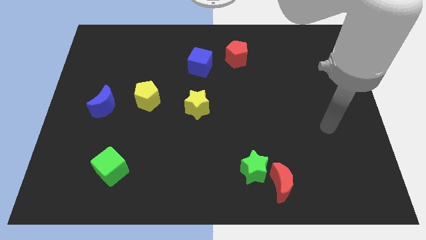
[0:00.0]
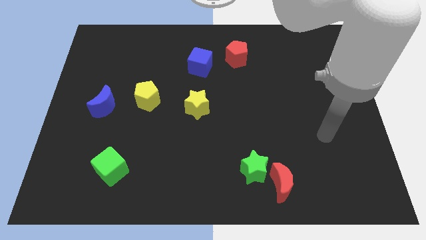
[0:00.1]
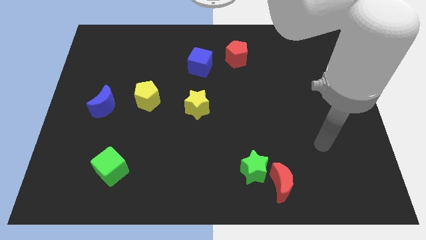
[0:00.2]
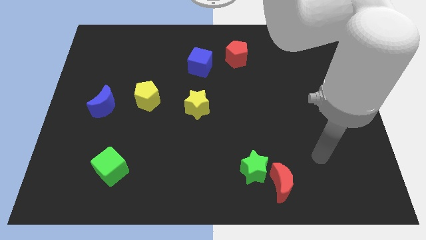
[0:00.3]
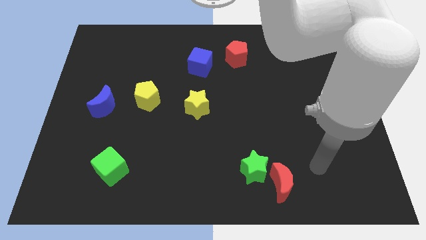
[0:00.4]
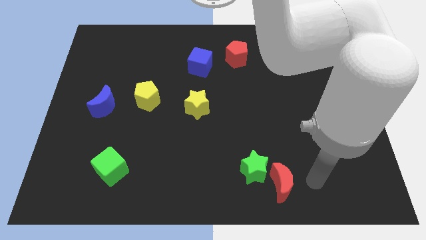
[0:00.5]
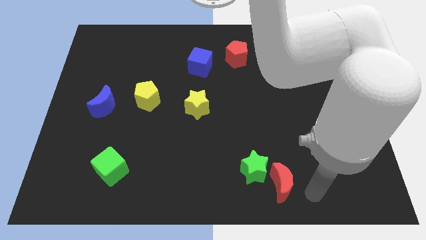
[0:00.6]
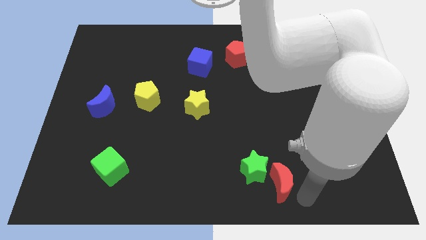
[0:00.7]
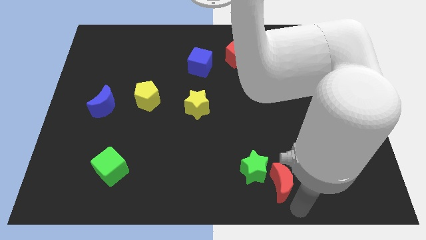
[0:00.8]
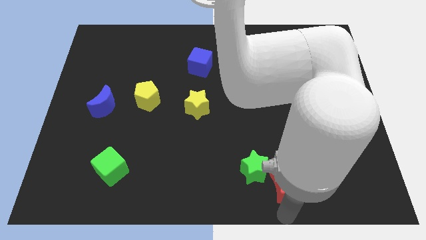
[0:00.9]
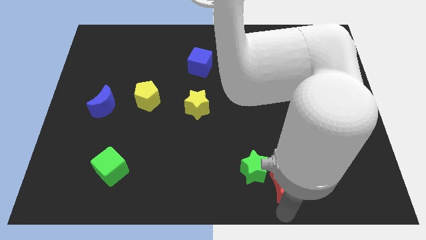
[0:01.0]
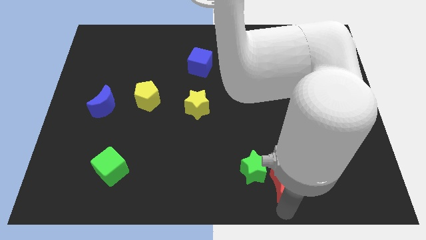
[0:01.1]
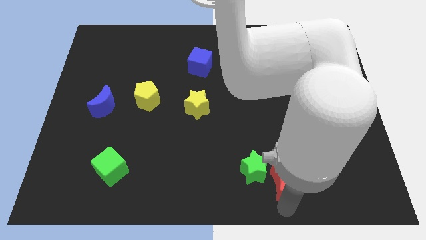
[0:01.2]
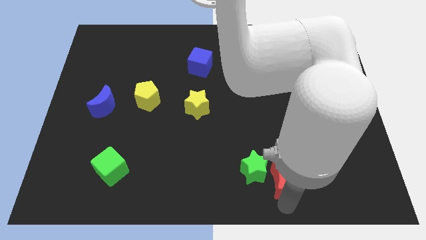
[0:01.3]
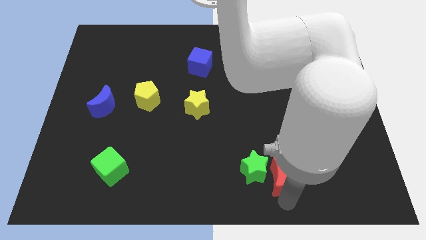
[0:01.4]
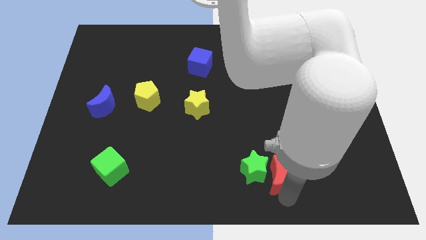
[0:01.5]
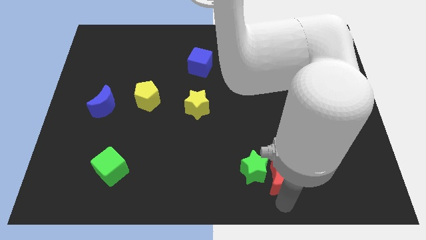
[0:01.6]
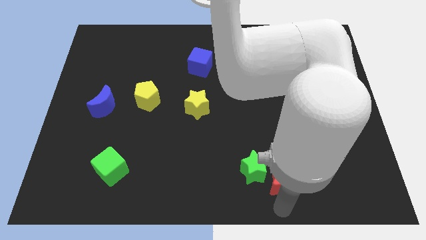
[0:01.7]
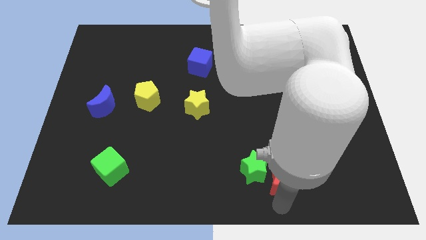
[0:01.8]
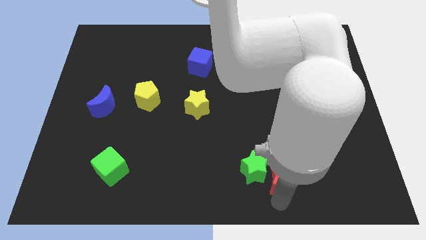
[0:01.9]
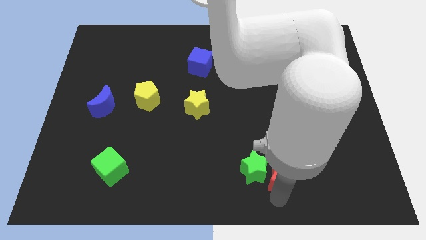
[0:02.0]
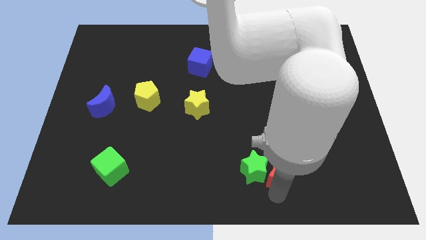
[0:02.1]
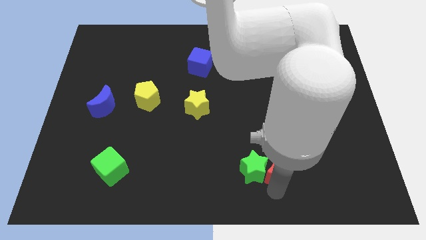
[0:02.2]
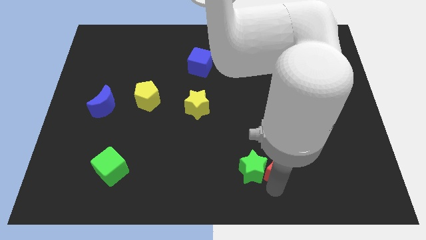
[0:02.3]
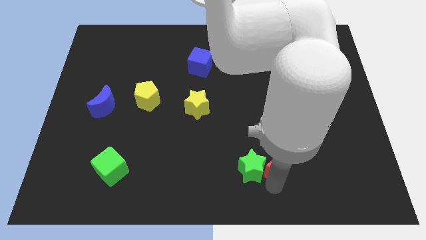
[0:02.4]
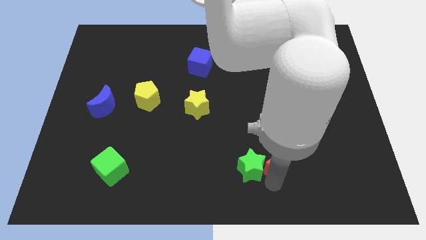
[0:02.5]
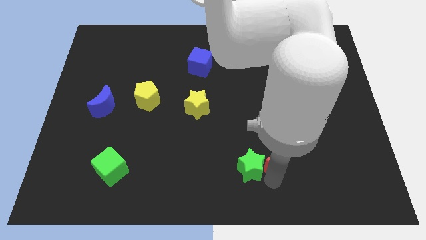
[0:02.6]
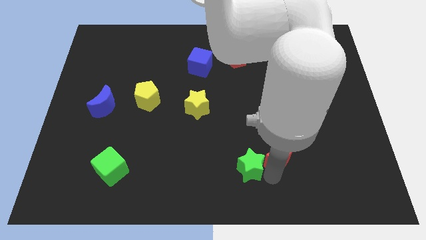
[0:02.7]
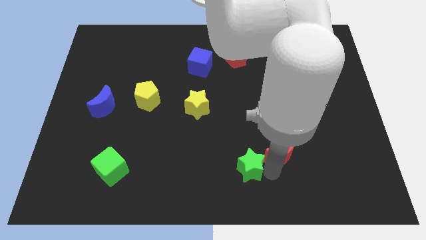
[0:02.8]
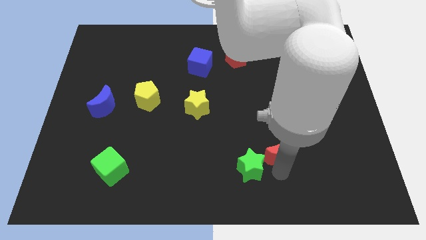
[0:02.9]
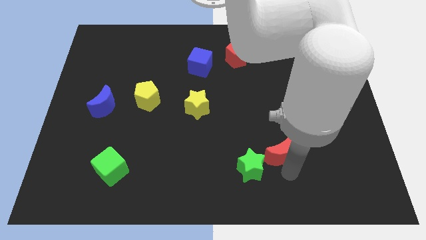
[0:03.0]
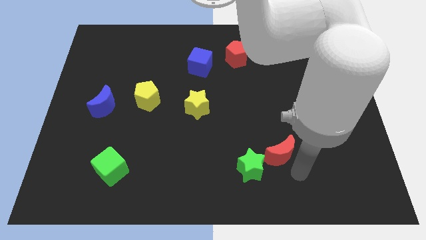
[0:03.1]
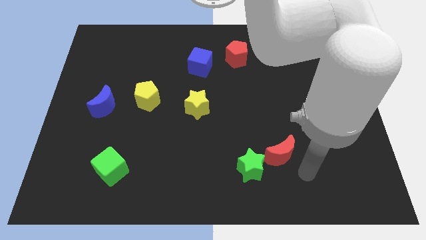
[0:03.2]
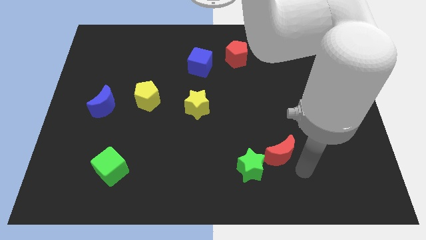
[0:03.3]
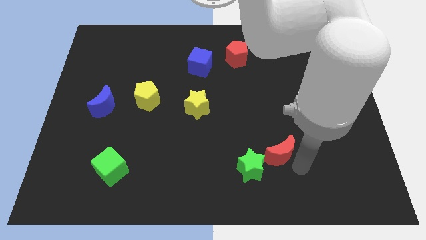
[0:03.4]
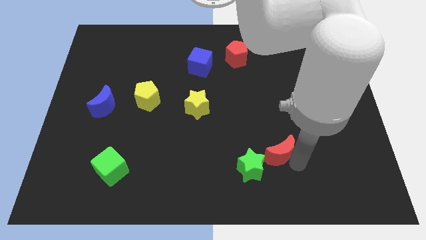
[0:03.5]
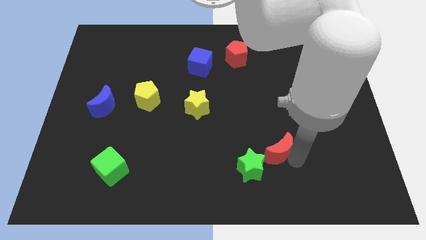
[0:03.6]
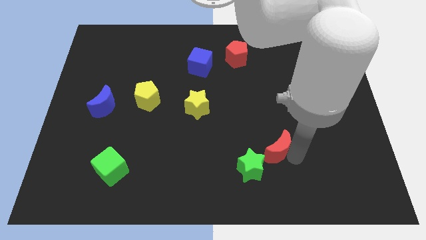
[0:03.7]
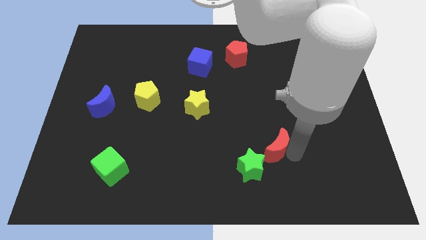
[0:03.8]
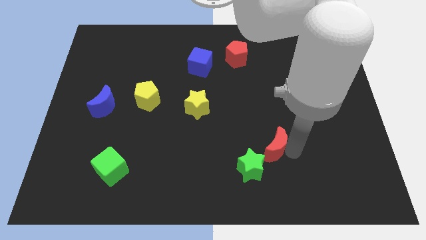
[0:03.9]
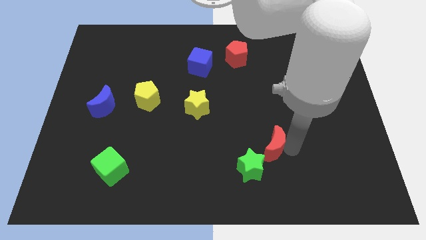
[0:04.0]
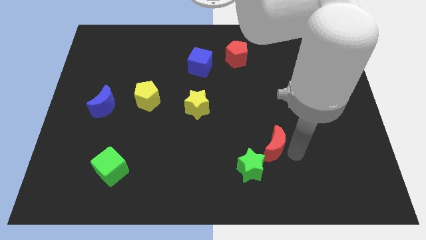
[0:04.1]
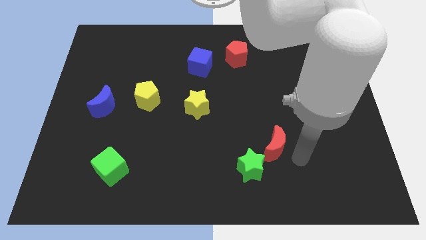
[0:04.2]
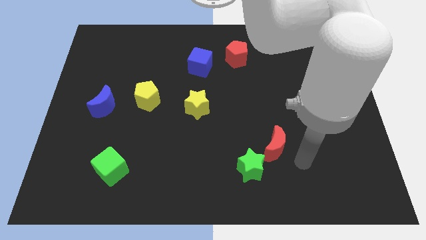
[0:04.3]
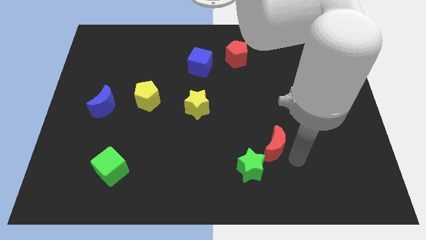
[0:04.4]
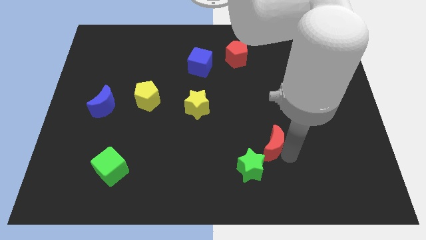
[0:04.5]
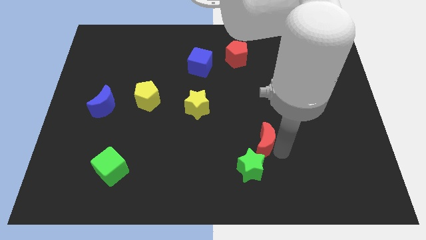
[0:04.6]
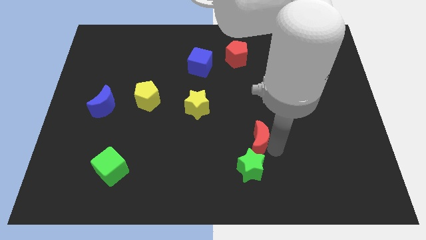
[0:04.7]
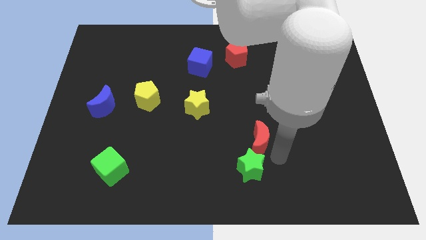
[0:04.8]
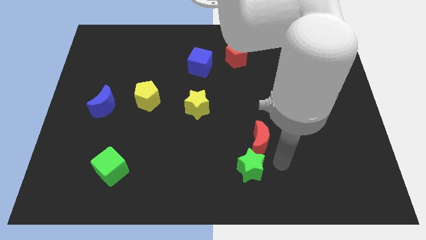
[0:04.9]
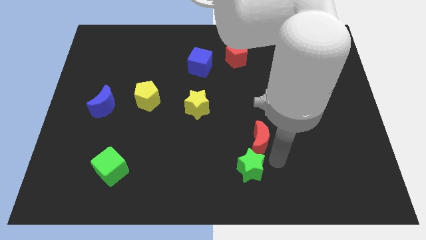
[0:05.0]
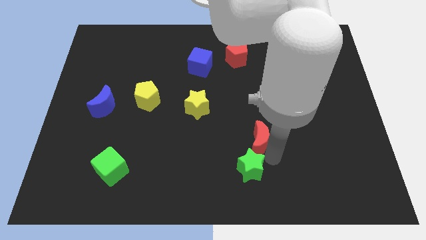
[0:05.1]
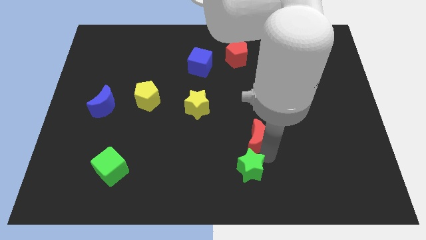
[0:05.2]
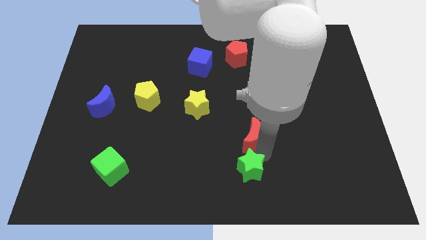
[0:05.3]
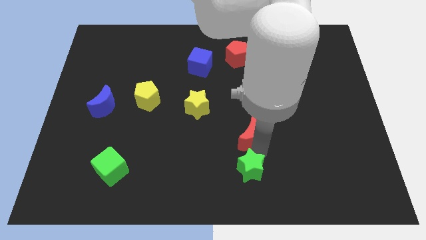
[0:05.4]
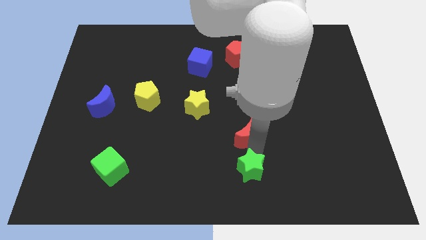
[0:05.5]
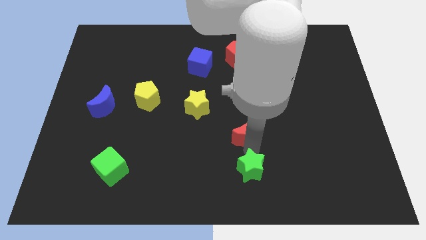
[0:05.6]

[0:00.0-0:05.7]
move the red moon to the middle of the board

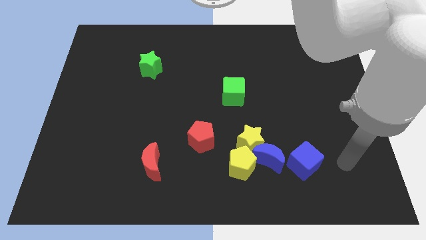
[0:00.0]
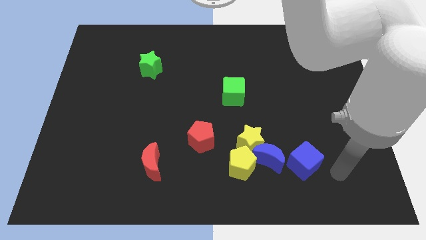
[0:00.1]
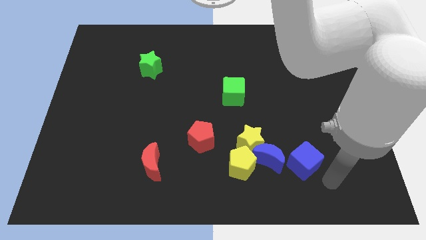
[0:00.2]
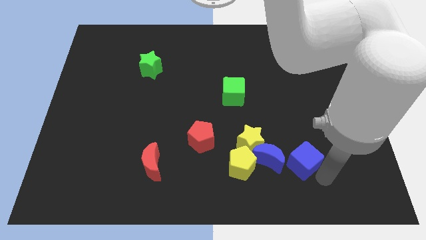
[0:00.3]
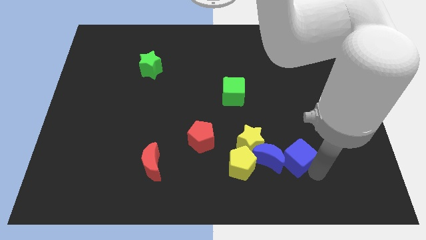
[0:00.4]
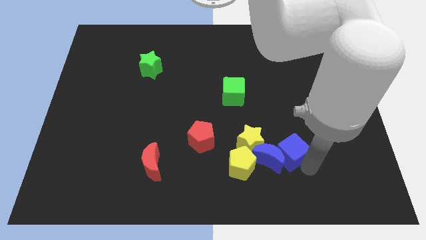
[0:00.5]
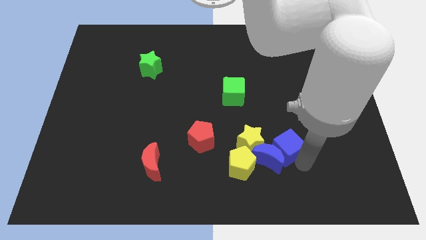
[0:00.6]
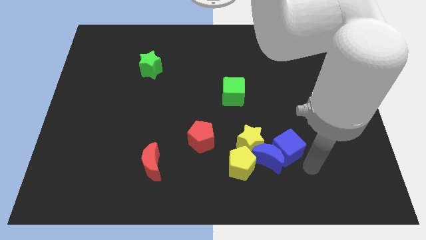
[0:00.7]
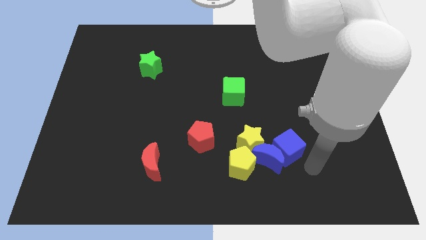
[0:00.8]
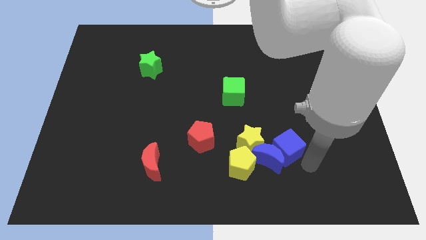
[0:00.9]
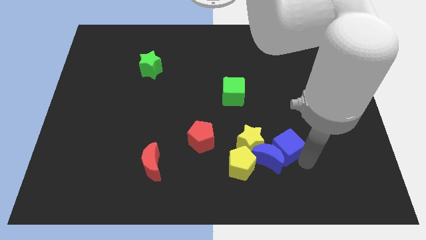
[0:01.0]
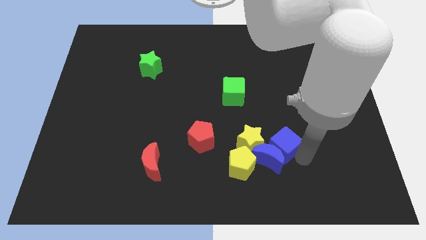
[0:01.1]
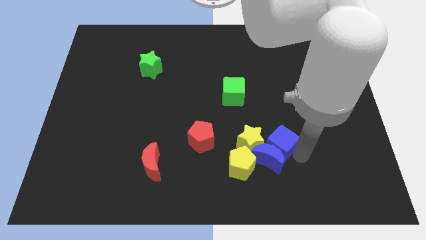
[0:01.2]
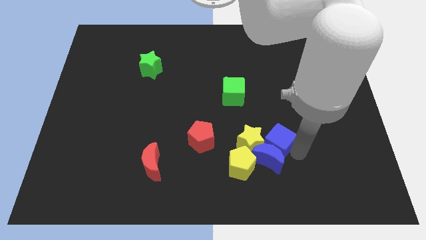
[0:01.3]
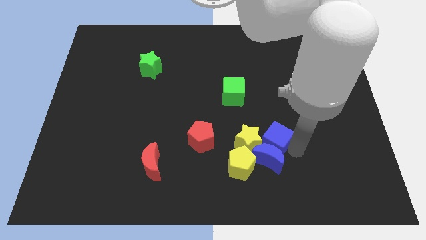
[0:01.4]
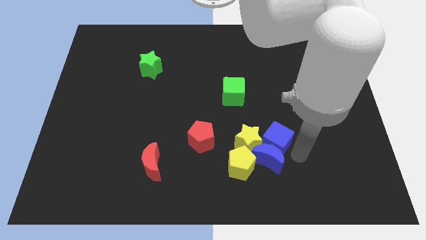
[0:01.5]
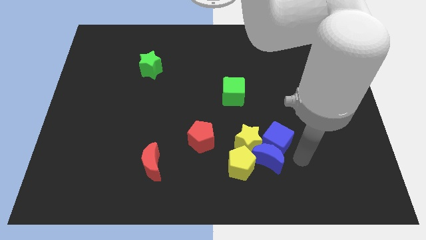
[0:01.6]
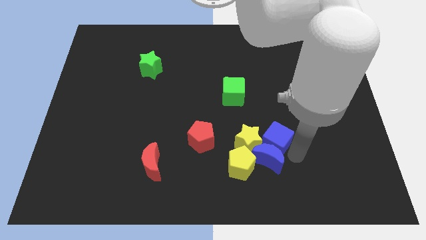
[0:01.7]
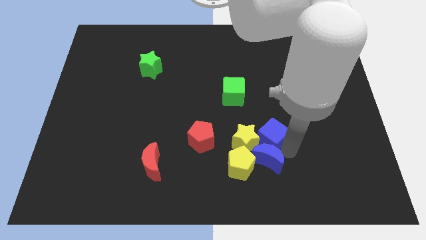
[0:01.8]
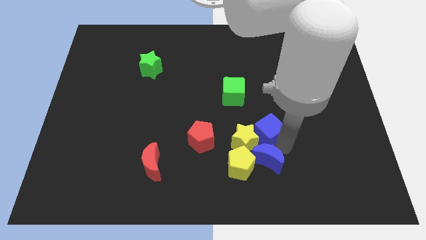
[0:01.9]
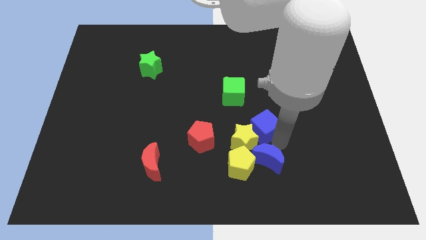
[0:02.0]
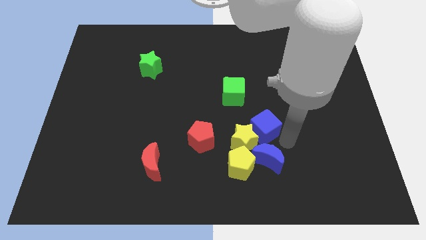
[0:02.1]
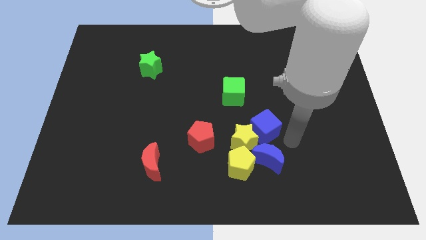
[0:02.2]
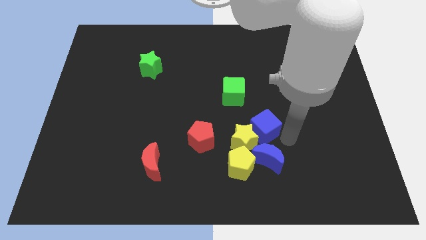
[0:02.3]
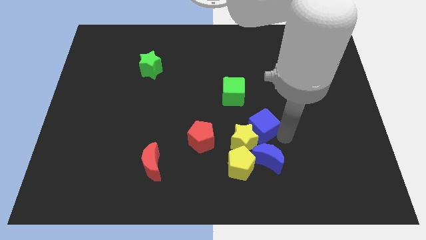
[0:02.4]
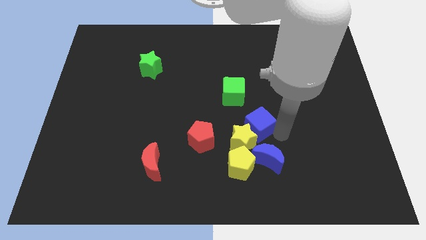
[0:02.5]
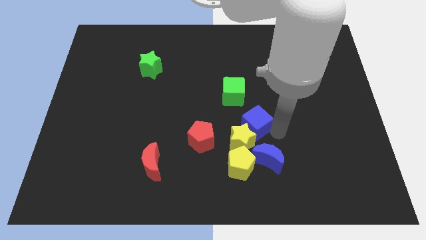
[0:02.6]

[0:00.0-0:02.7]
move the blue cube to the center
